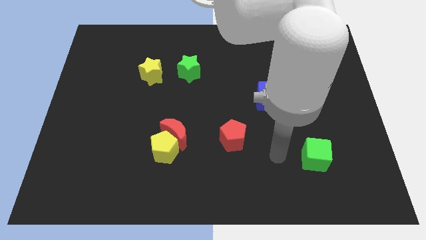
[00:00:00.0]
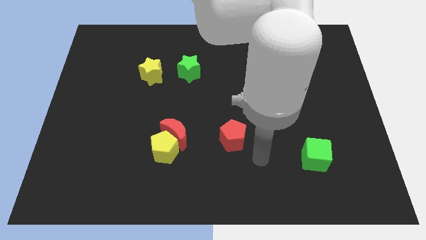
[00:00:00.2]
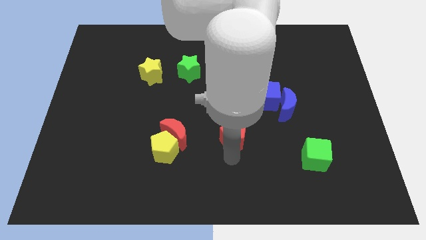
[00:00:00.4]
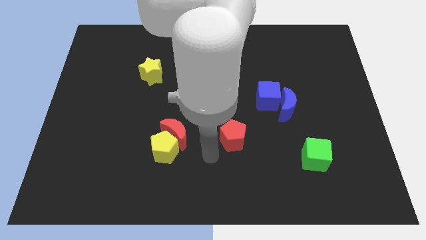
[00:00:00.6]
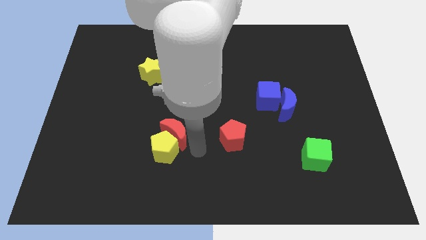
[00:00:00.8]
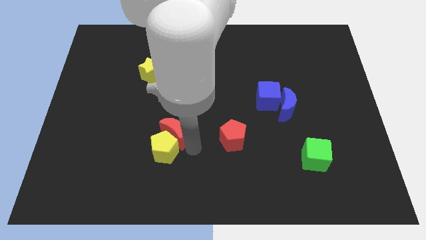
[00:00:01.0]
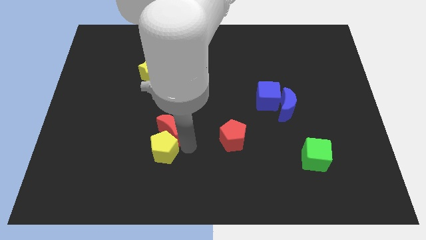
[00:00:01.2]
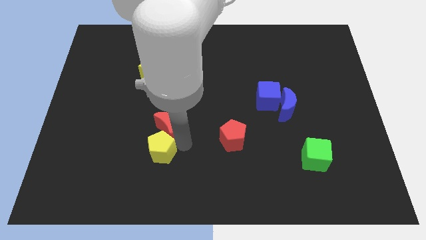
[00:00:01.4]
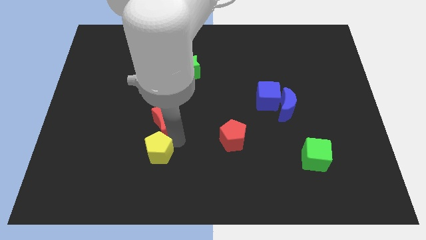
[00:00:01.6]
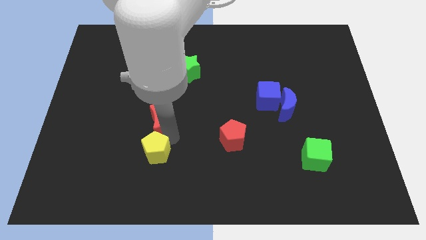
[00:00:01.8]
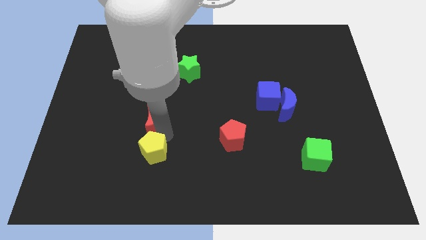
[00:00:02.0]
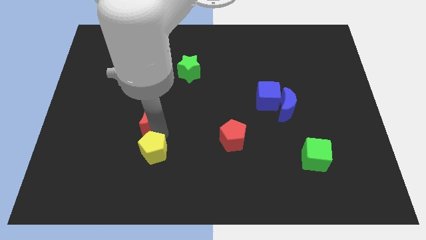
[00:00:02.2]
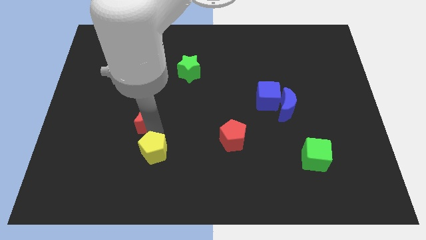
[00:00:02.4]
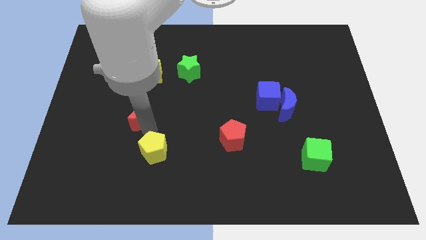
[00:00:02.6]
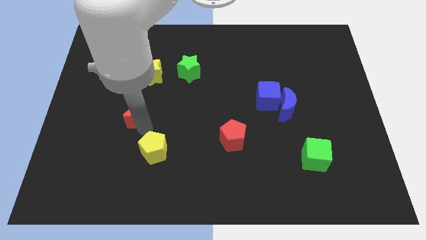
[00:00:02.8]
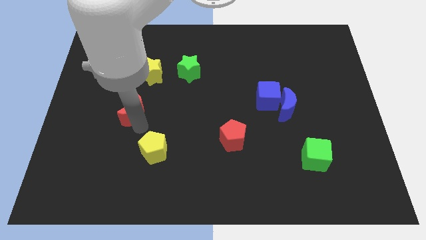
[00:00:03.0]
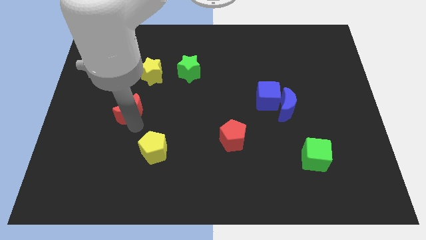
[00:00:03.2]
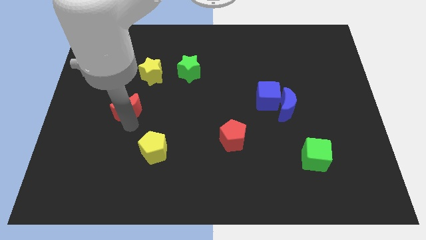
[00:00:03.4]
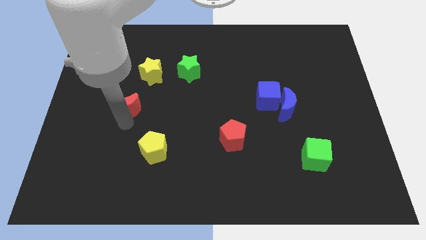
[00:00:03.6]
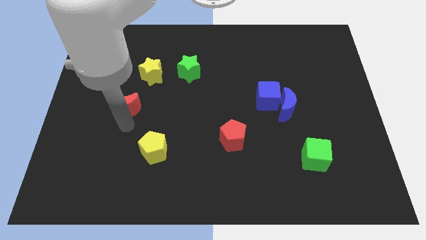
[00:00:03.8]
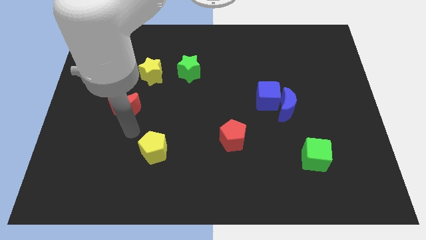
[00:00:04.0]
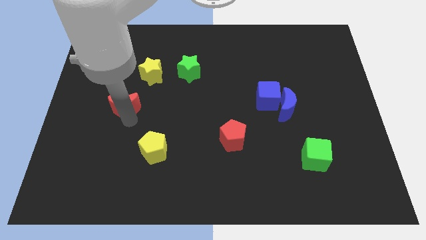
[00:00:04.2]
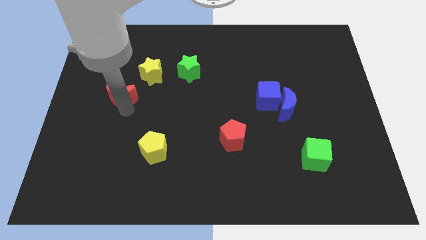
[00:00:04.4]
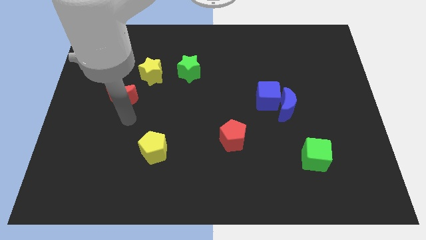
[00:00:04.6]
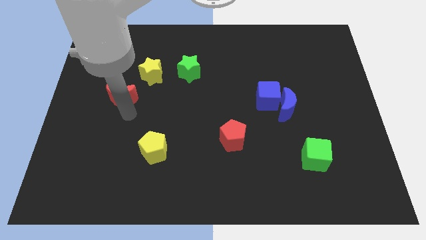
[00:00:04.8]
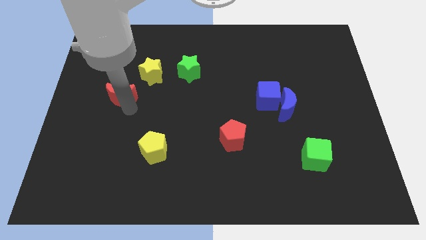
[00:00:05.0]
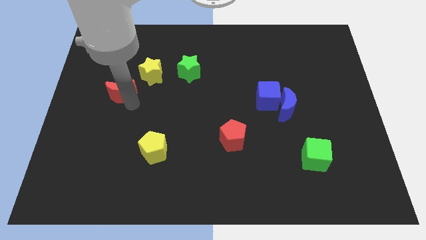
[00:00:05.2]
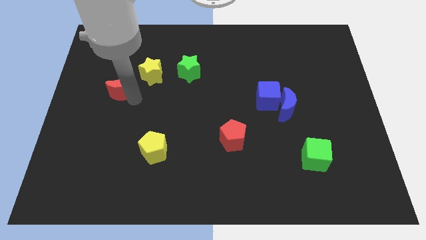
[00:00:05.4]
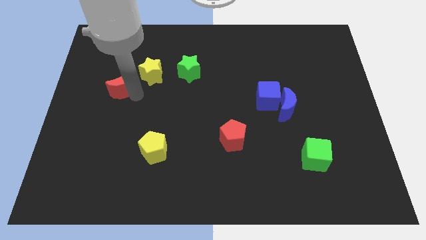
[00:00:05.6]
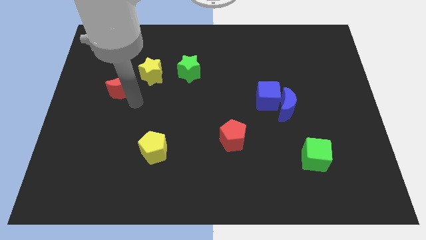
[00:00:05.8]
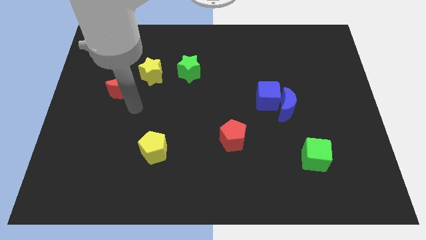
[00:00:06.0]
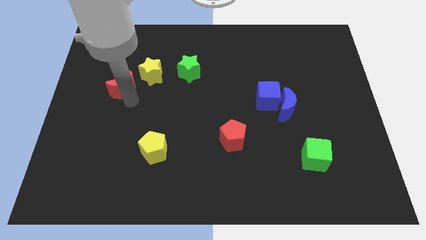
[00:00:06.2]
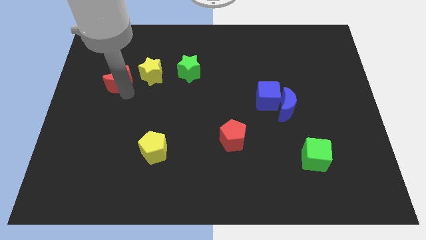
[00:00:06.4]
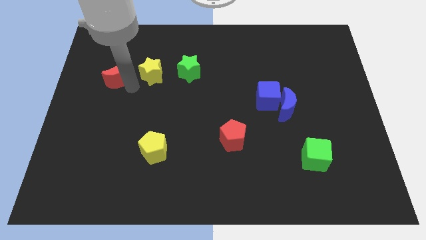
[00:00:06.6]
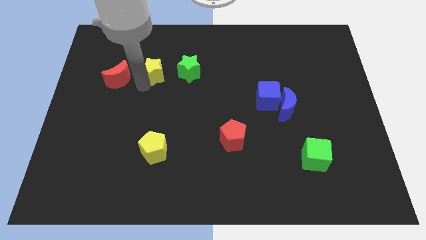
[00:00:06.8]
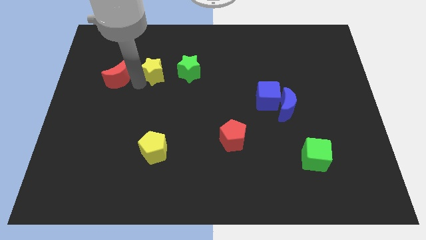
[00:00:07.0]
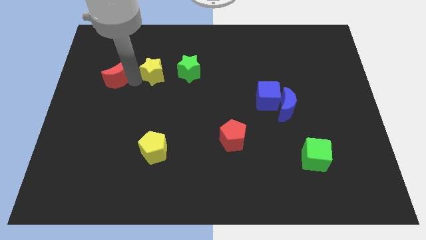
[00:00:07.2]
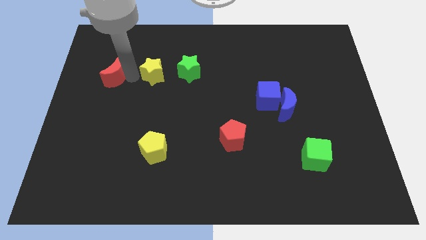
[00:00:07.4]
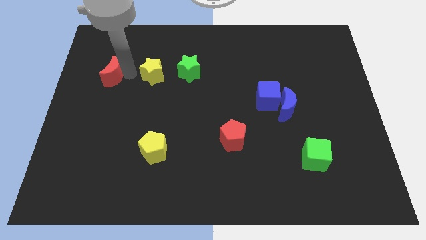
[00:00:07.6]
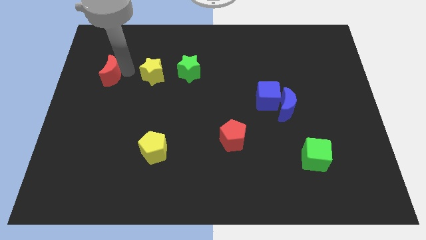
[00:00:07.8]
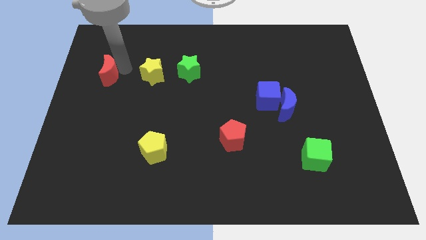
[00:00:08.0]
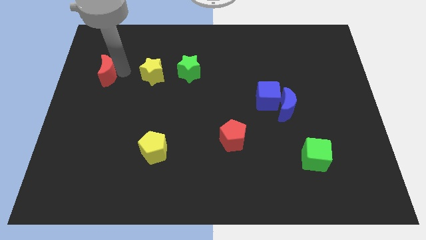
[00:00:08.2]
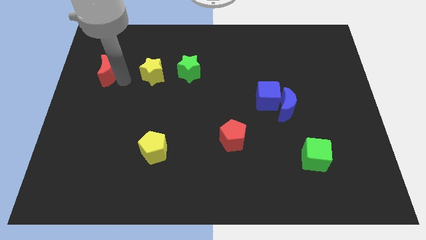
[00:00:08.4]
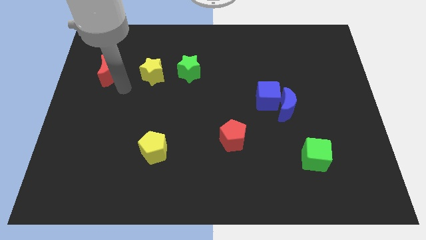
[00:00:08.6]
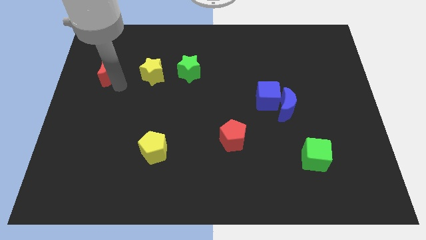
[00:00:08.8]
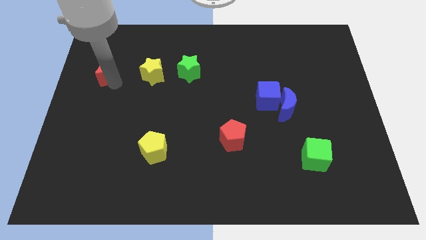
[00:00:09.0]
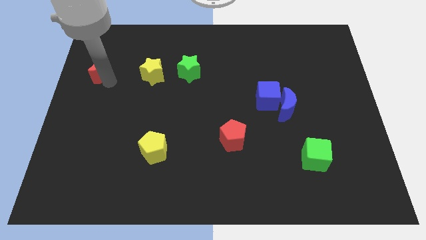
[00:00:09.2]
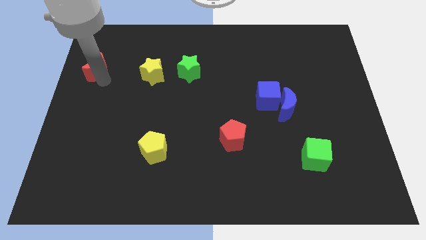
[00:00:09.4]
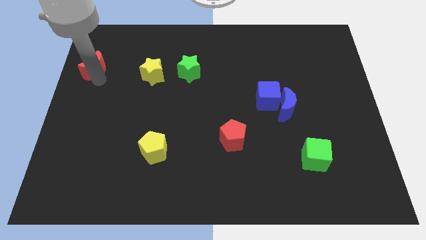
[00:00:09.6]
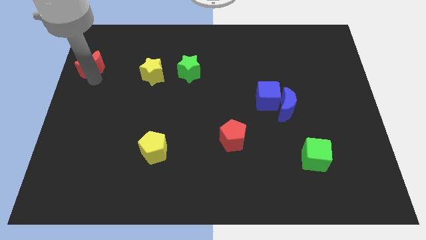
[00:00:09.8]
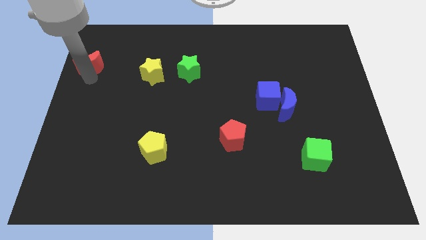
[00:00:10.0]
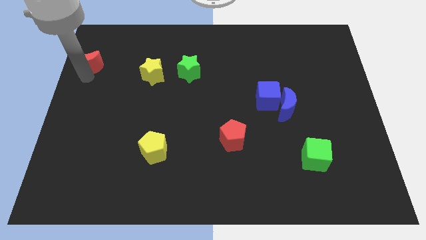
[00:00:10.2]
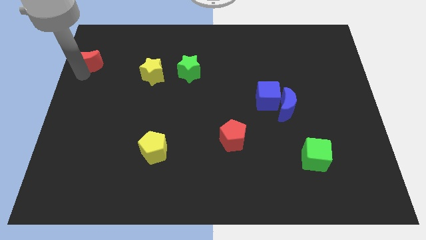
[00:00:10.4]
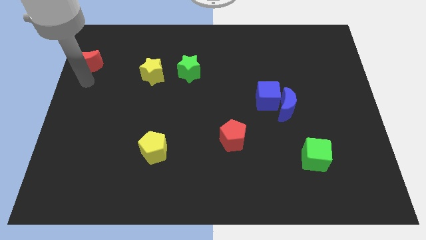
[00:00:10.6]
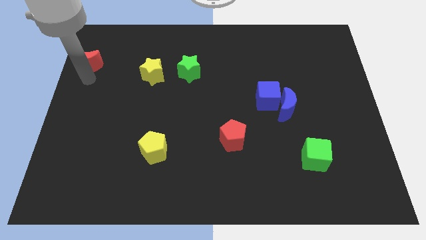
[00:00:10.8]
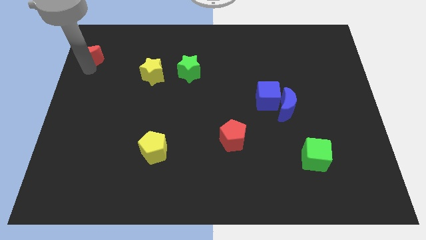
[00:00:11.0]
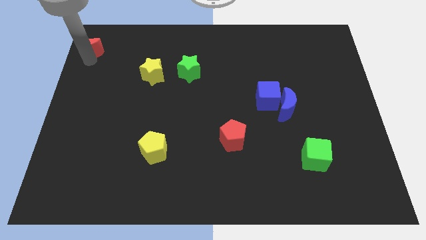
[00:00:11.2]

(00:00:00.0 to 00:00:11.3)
push the red moon to the top left corner
